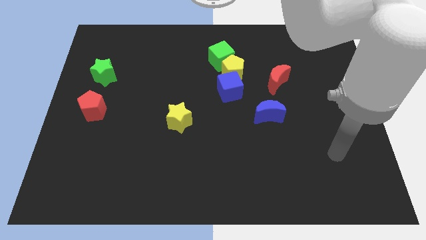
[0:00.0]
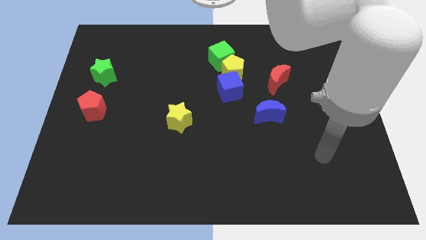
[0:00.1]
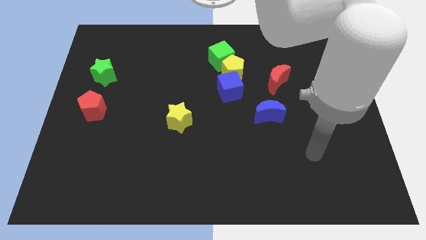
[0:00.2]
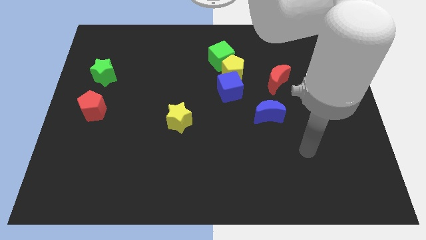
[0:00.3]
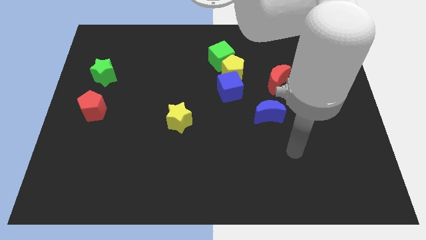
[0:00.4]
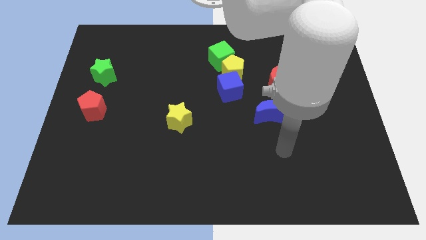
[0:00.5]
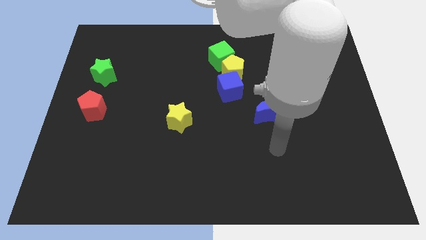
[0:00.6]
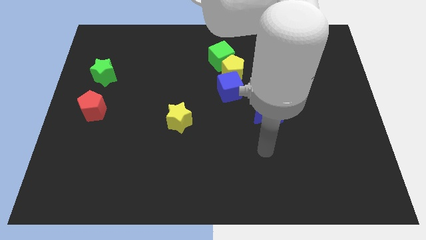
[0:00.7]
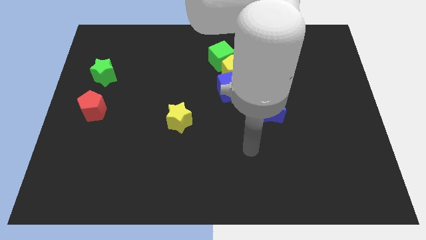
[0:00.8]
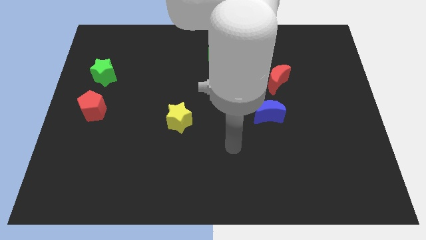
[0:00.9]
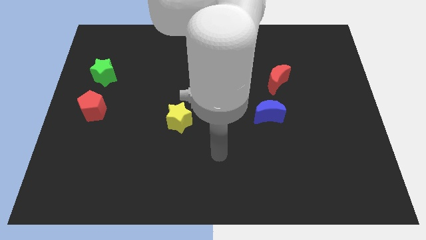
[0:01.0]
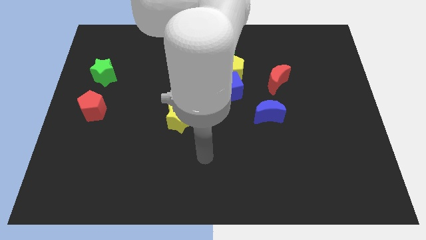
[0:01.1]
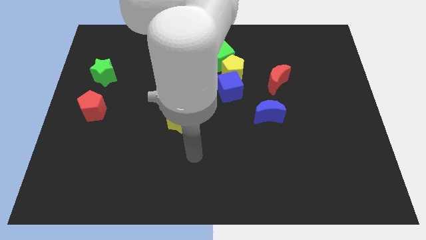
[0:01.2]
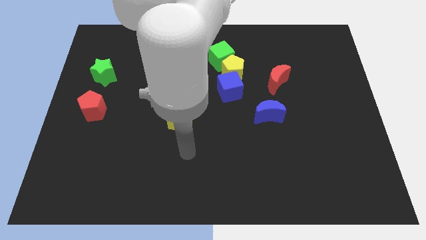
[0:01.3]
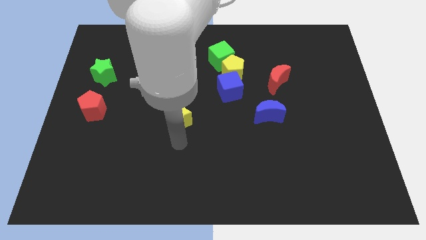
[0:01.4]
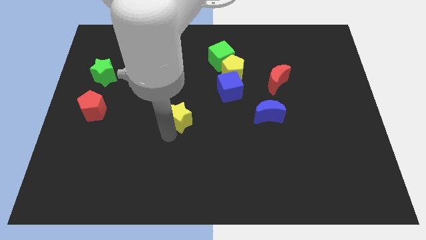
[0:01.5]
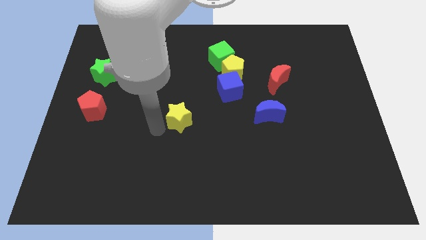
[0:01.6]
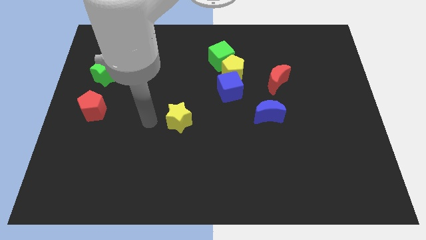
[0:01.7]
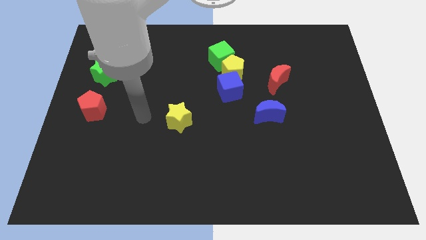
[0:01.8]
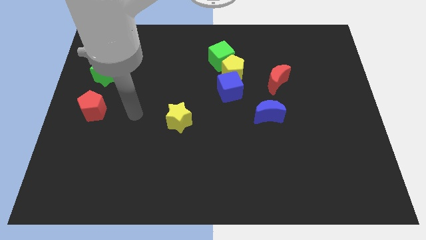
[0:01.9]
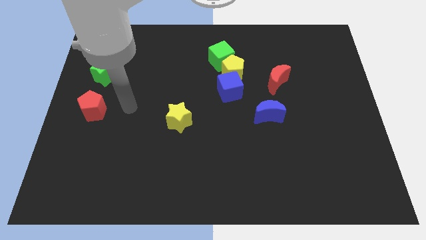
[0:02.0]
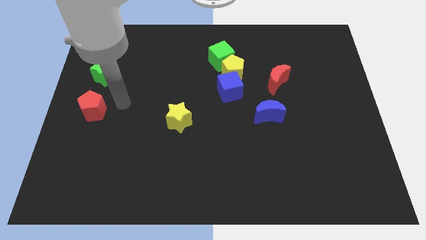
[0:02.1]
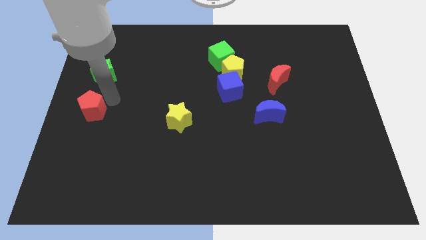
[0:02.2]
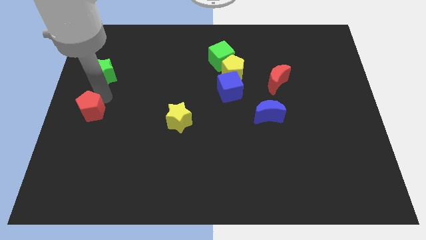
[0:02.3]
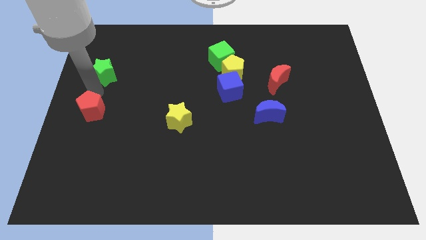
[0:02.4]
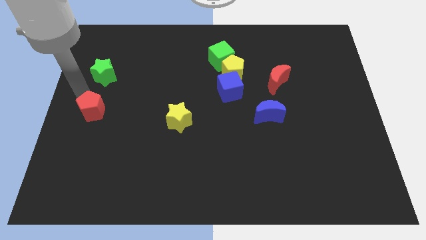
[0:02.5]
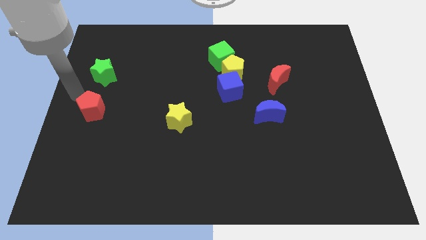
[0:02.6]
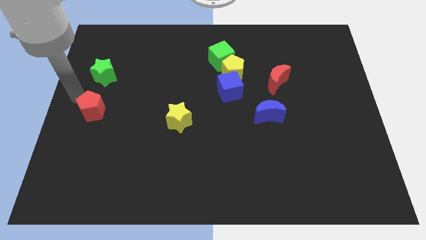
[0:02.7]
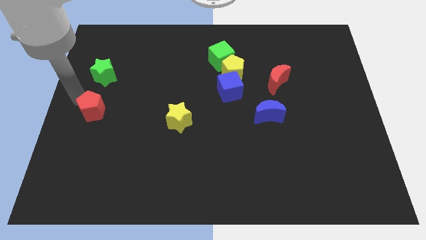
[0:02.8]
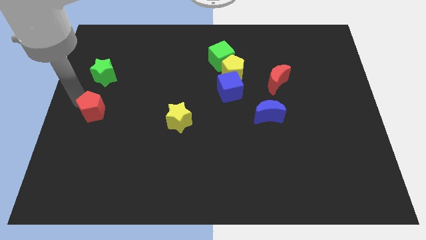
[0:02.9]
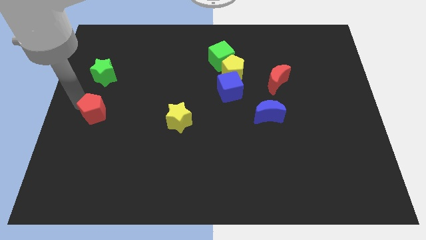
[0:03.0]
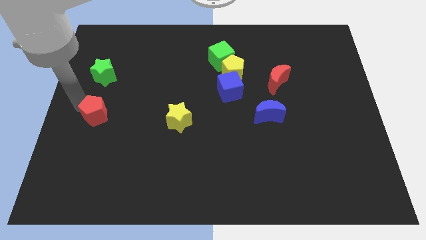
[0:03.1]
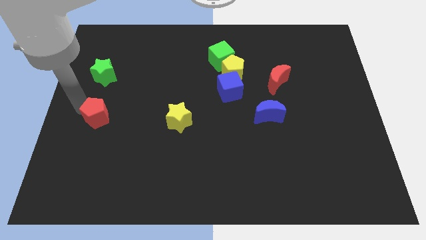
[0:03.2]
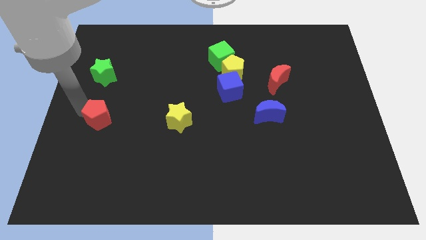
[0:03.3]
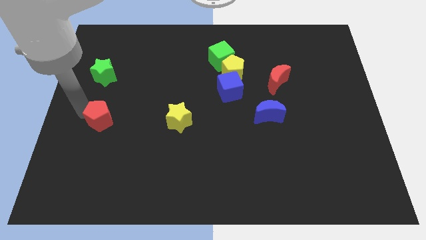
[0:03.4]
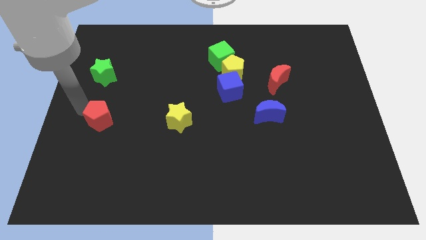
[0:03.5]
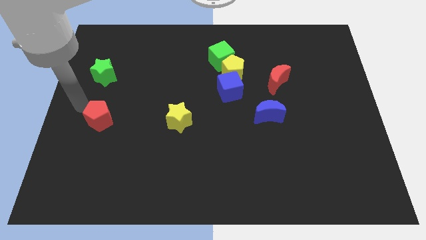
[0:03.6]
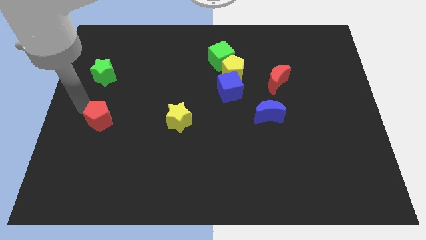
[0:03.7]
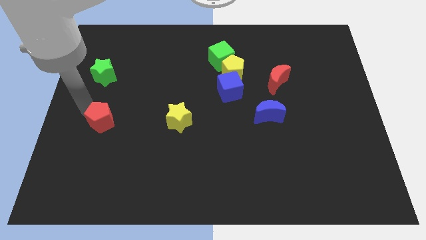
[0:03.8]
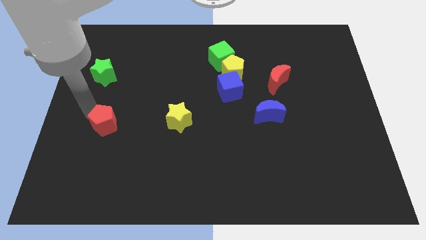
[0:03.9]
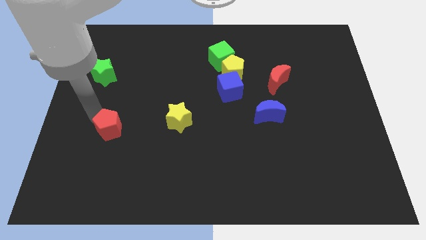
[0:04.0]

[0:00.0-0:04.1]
move the red pentagon down and then right a little bit

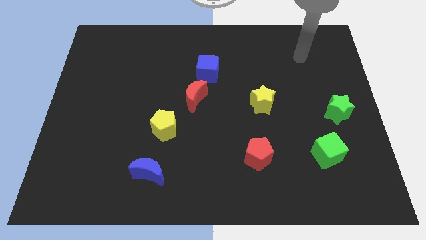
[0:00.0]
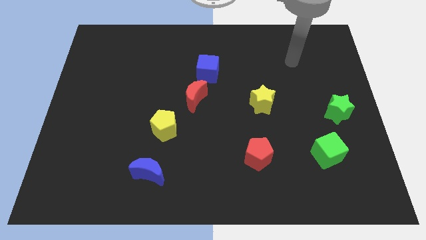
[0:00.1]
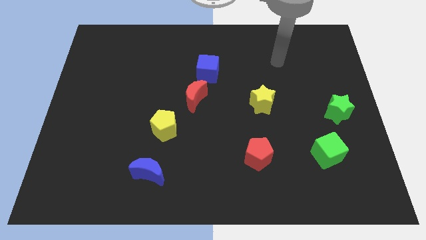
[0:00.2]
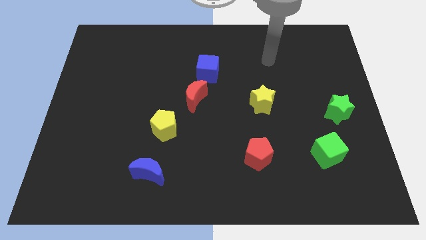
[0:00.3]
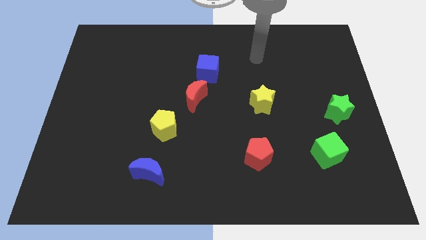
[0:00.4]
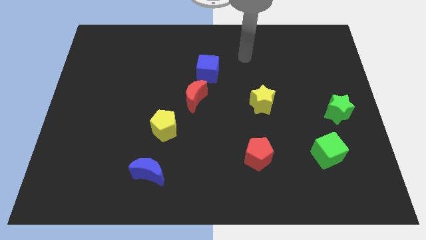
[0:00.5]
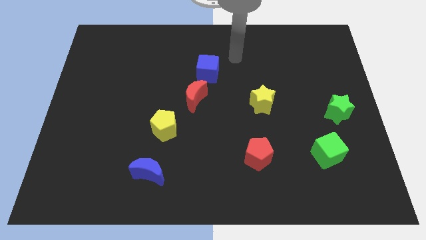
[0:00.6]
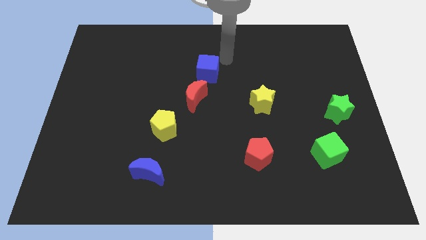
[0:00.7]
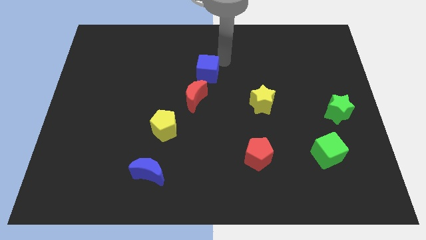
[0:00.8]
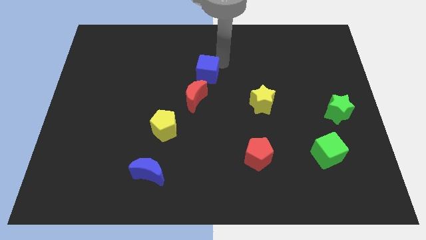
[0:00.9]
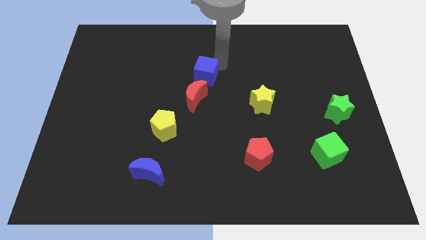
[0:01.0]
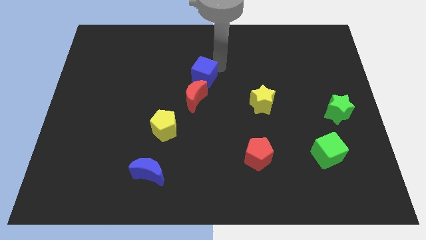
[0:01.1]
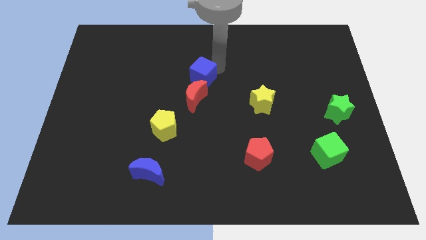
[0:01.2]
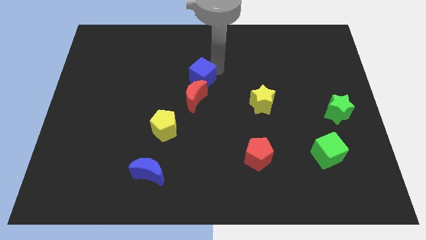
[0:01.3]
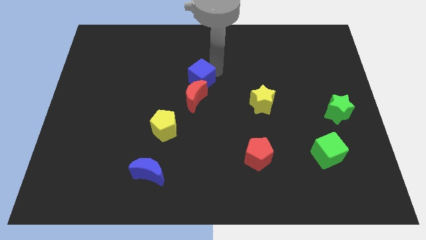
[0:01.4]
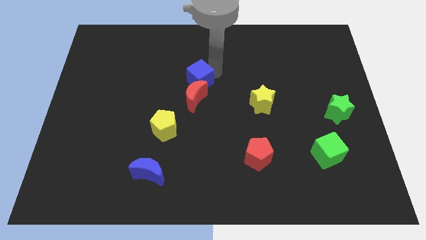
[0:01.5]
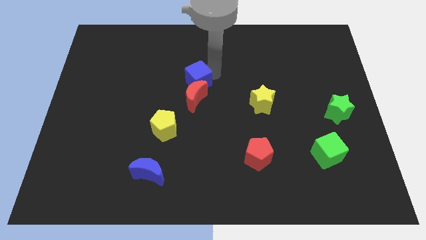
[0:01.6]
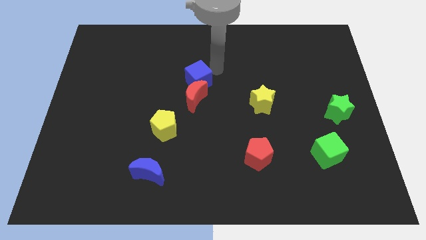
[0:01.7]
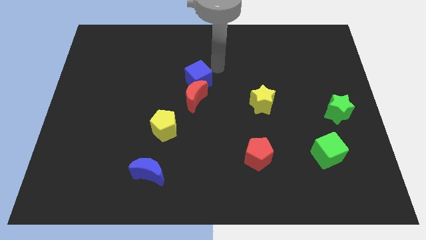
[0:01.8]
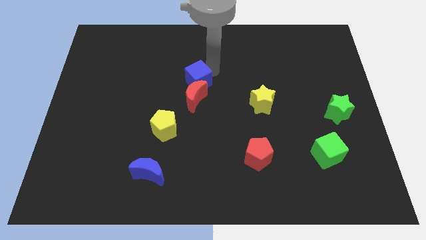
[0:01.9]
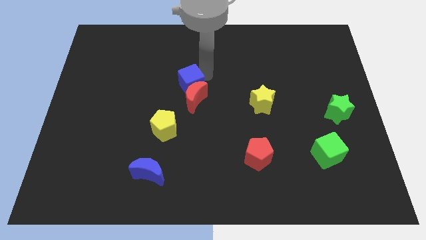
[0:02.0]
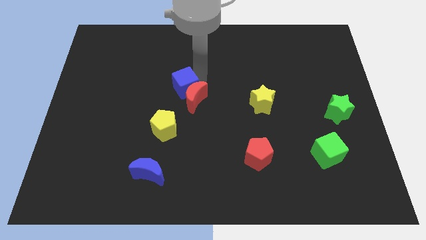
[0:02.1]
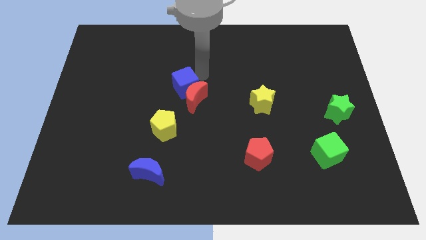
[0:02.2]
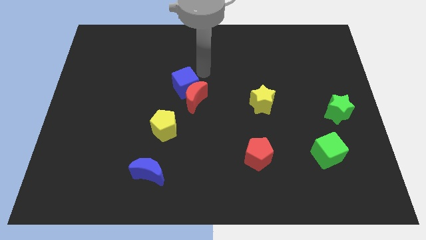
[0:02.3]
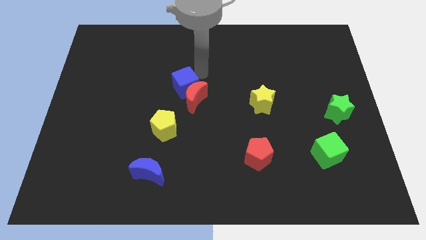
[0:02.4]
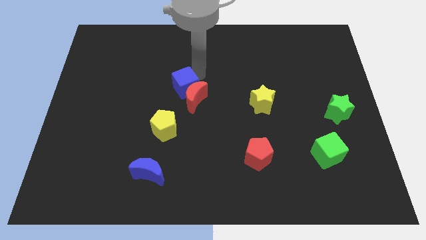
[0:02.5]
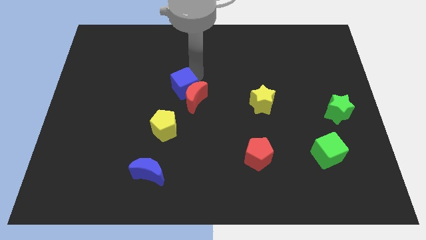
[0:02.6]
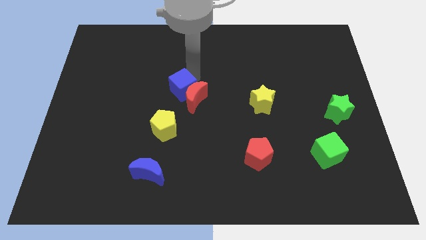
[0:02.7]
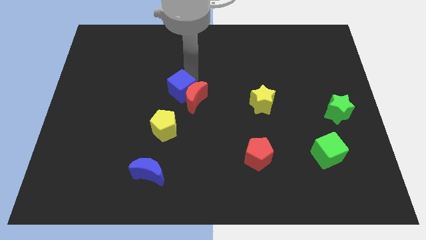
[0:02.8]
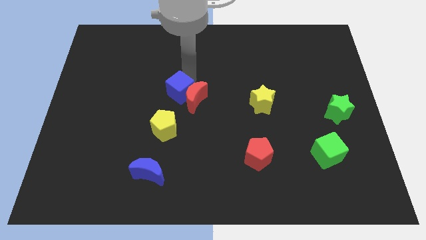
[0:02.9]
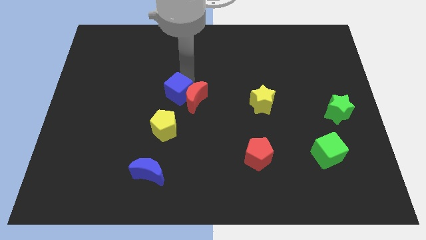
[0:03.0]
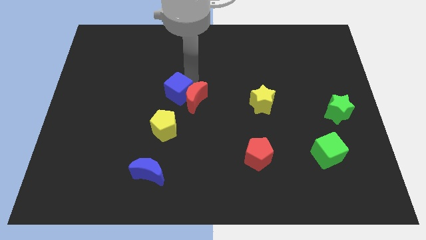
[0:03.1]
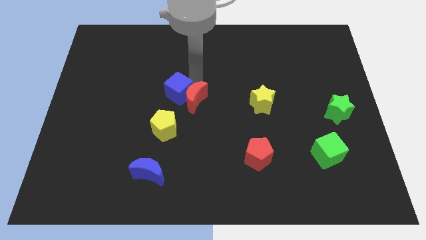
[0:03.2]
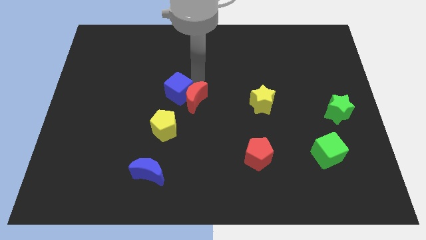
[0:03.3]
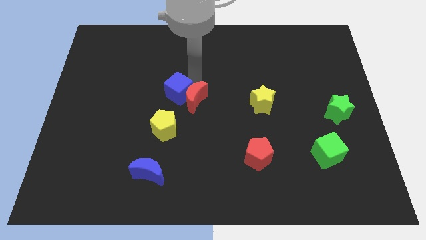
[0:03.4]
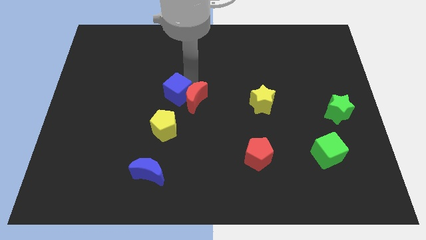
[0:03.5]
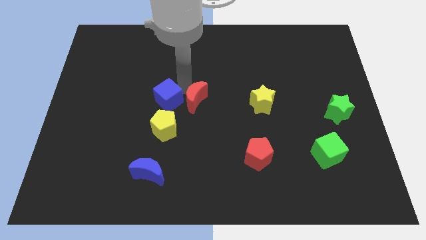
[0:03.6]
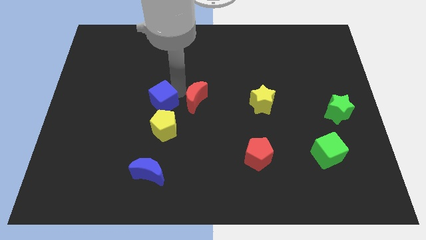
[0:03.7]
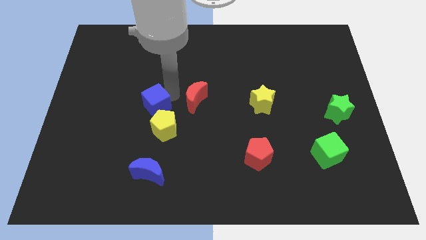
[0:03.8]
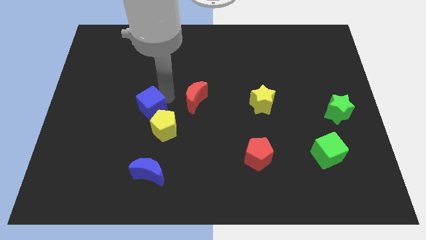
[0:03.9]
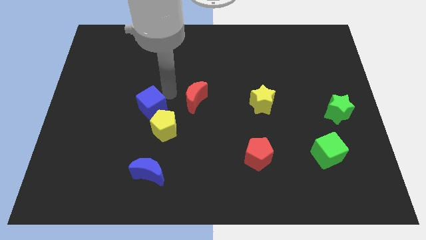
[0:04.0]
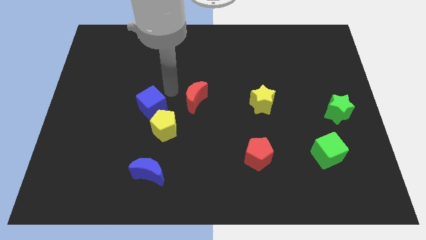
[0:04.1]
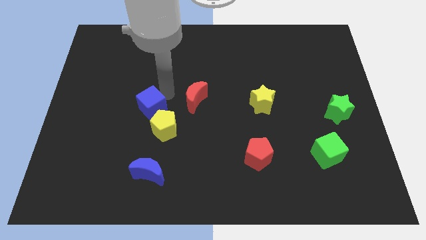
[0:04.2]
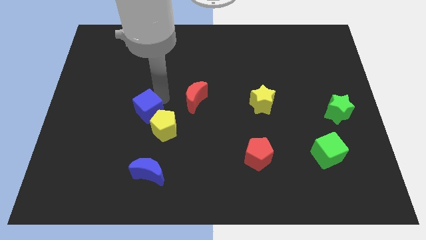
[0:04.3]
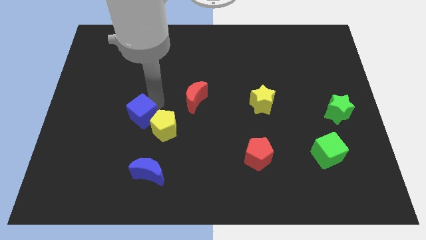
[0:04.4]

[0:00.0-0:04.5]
slide the blue cube down and then to the left
